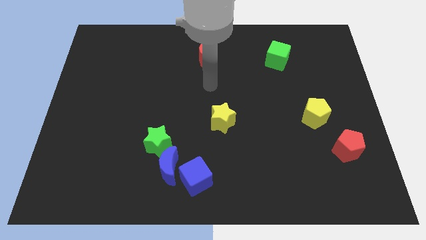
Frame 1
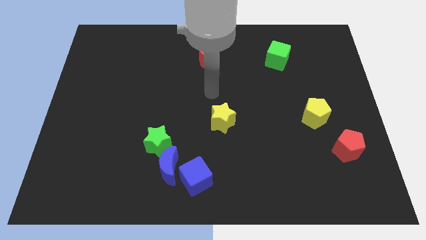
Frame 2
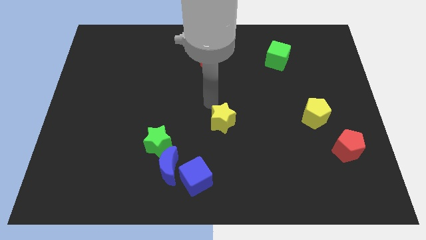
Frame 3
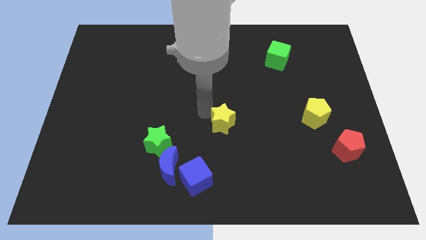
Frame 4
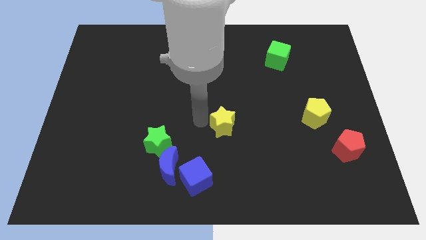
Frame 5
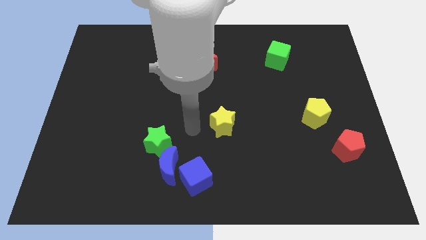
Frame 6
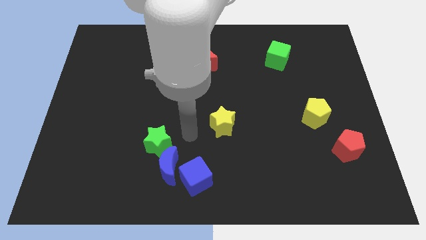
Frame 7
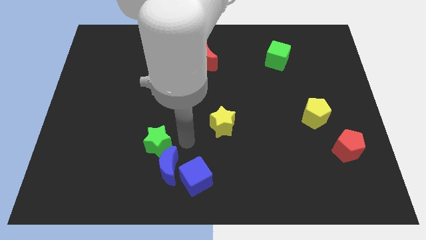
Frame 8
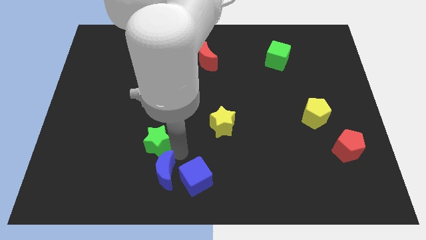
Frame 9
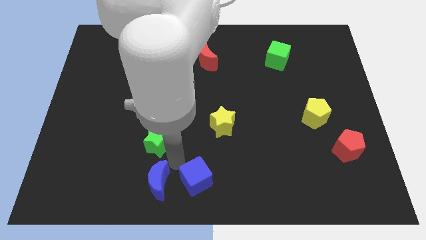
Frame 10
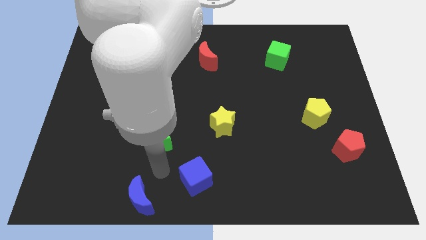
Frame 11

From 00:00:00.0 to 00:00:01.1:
move the green star away from the blue moon

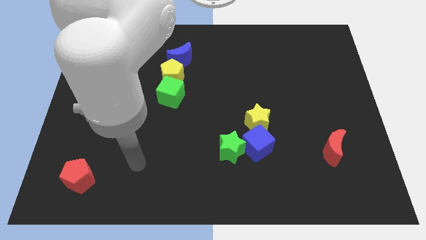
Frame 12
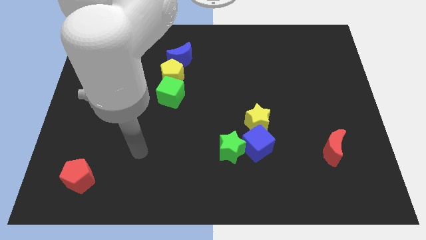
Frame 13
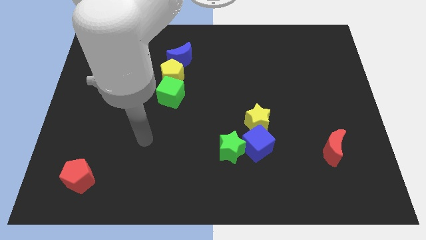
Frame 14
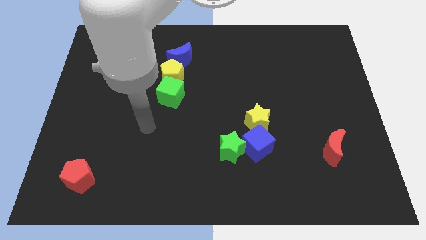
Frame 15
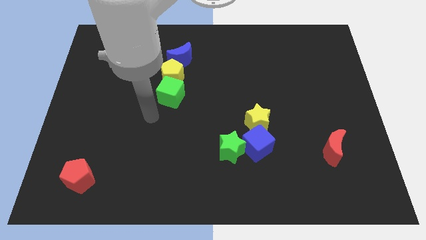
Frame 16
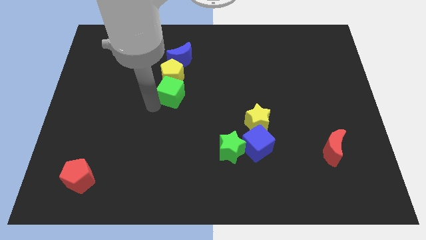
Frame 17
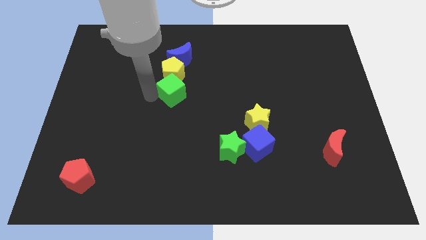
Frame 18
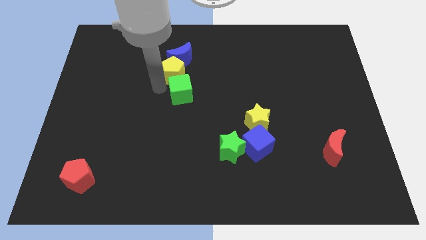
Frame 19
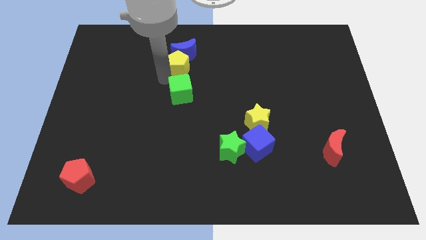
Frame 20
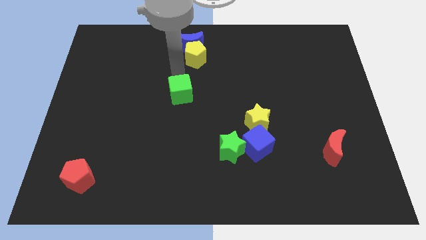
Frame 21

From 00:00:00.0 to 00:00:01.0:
move the green cube away from the yellow pentagon

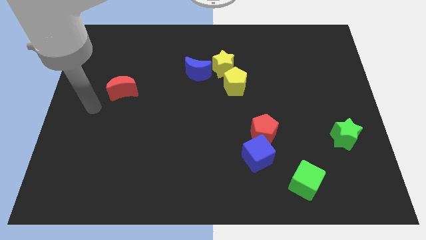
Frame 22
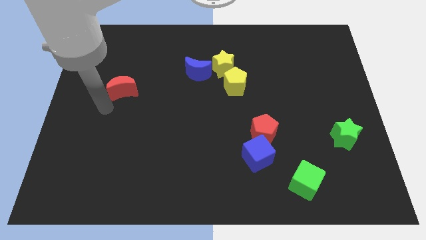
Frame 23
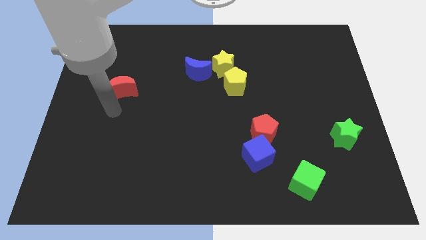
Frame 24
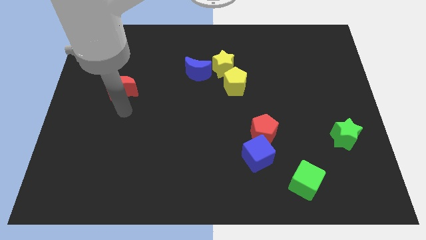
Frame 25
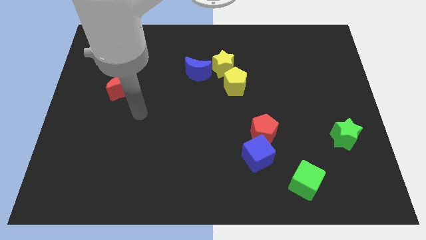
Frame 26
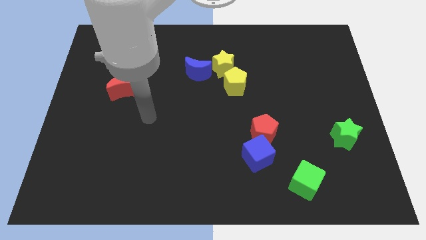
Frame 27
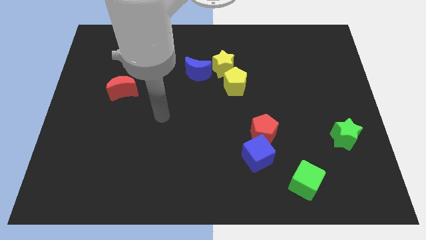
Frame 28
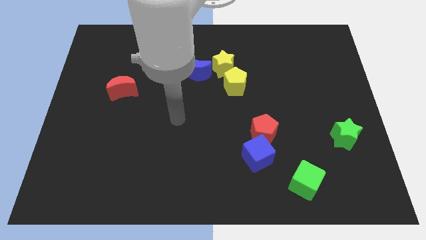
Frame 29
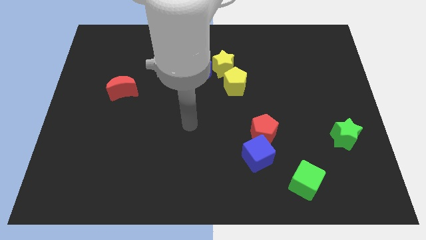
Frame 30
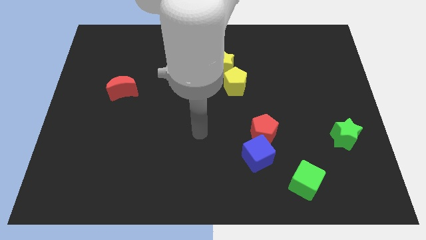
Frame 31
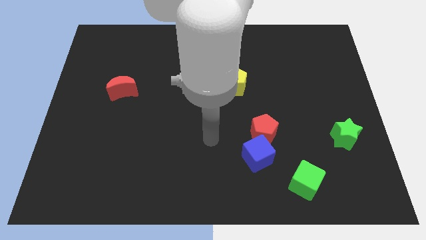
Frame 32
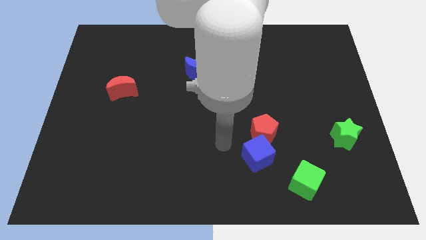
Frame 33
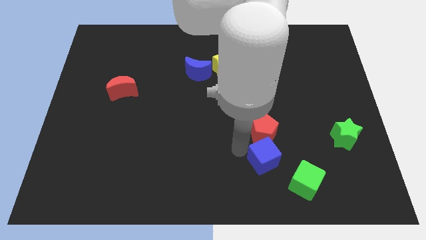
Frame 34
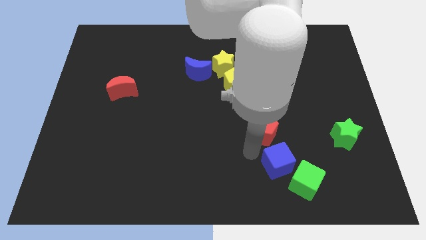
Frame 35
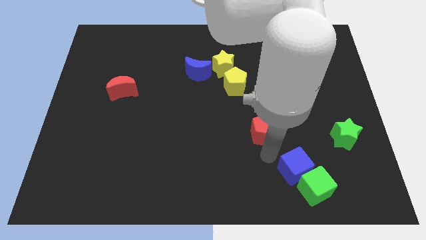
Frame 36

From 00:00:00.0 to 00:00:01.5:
pull the red pentagon apart from the blue cube

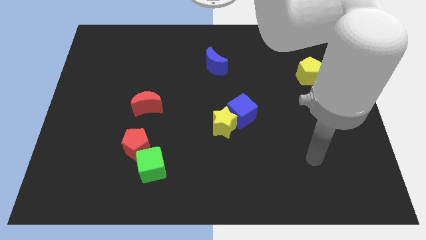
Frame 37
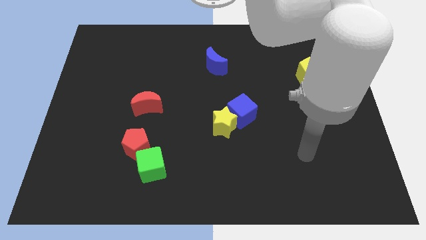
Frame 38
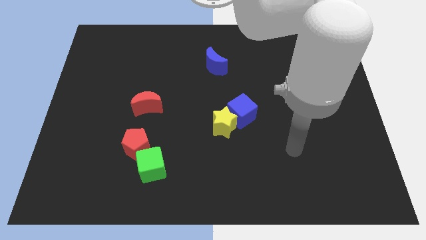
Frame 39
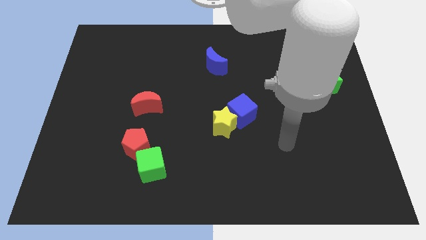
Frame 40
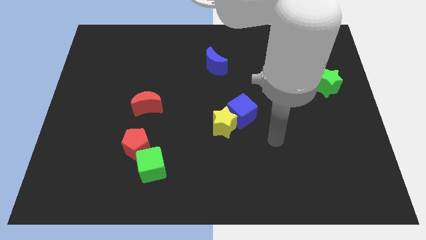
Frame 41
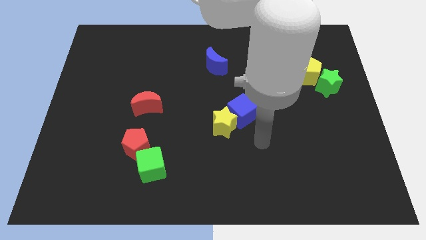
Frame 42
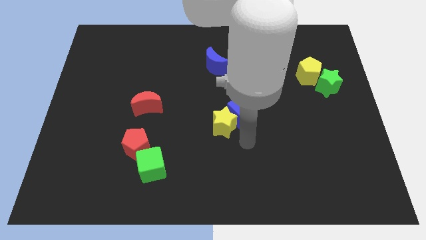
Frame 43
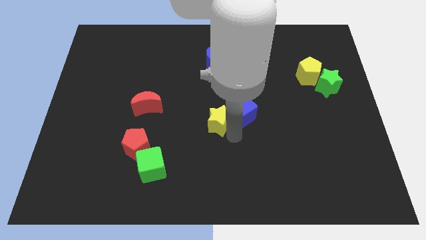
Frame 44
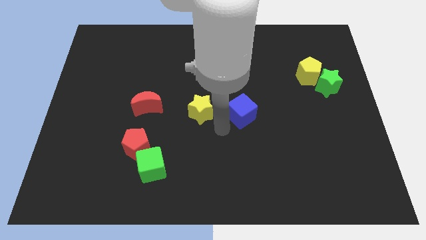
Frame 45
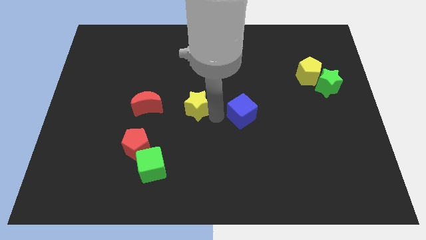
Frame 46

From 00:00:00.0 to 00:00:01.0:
pull the blue cube apart from the yellow star

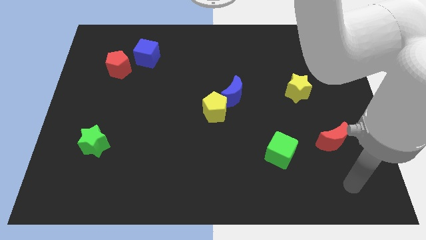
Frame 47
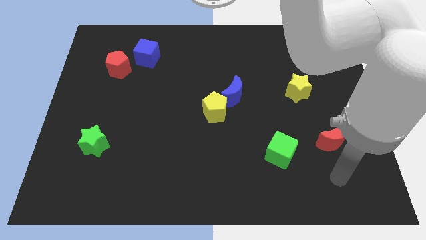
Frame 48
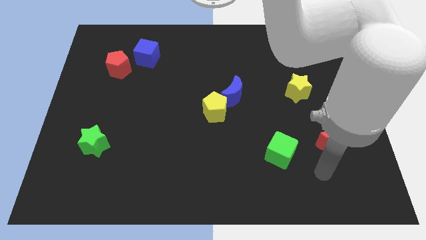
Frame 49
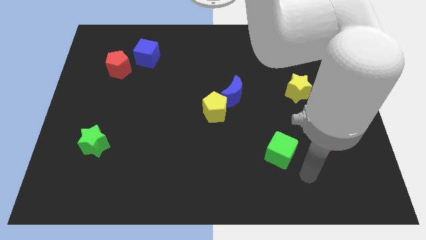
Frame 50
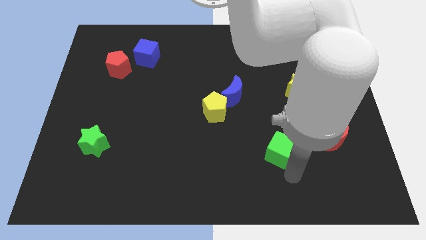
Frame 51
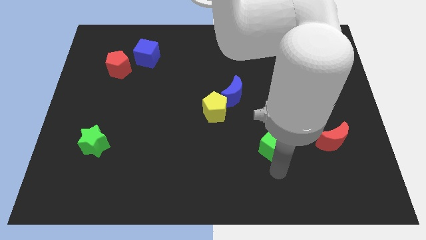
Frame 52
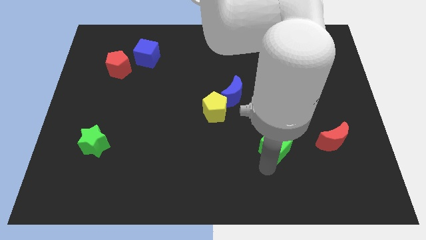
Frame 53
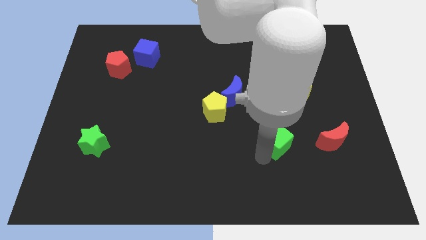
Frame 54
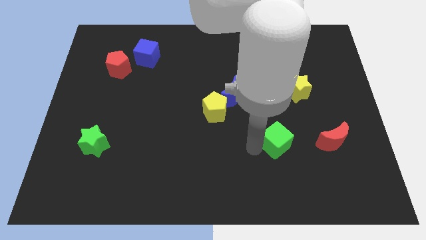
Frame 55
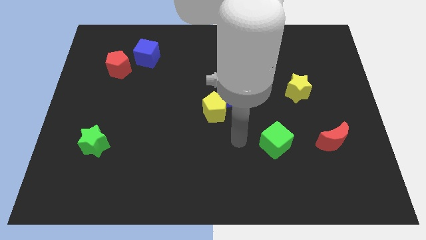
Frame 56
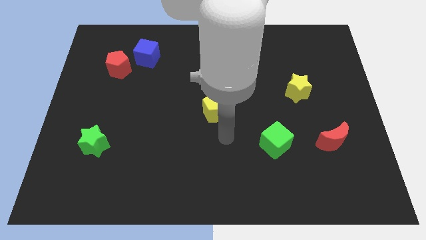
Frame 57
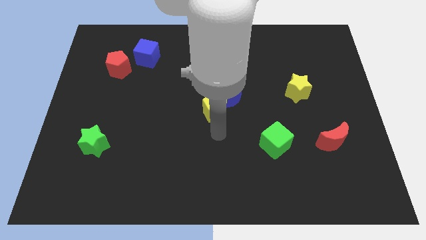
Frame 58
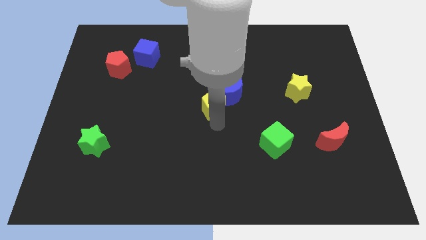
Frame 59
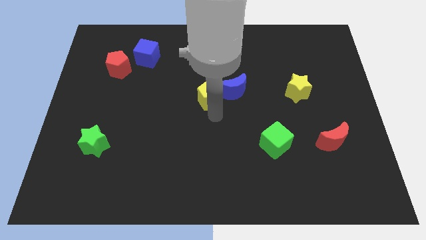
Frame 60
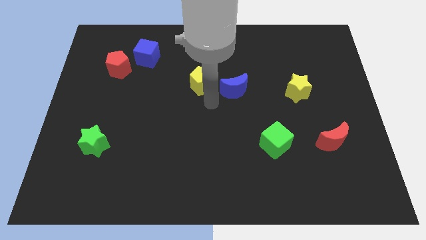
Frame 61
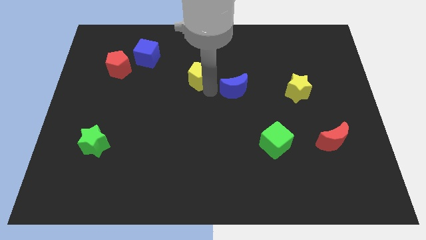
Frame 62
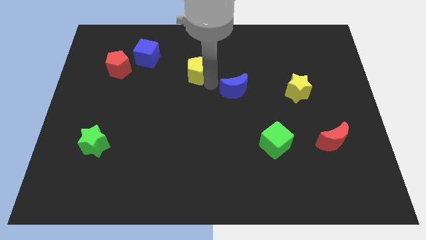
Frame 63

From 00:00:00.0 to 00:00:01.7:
separate the blue moon from the yellow pentagon

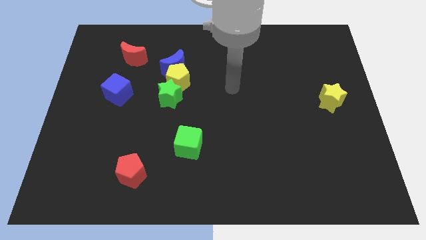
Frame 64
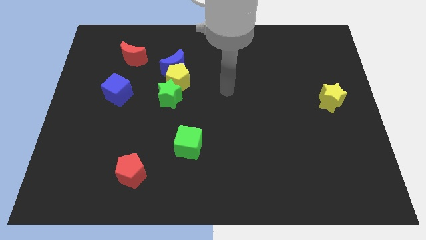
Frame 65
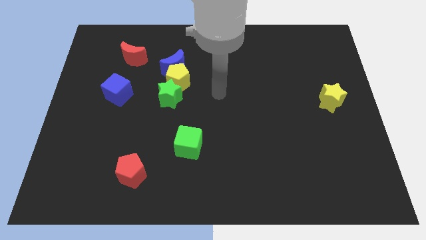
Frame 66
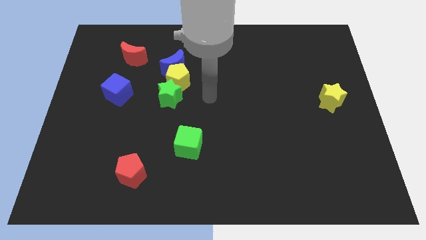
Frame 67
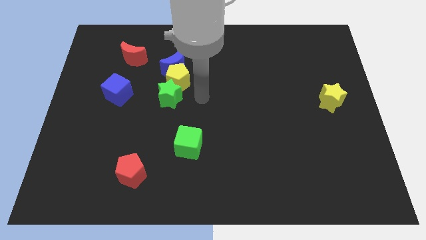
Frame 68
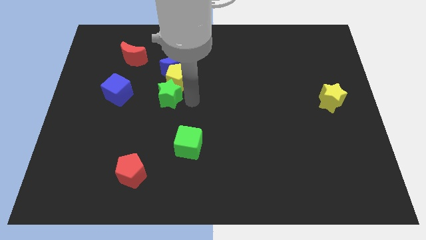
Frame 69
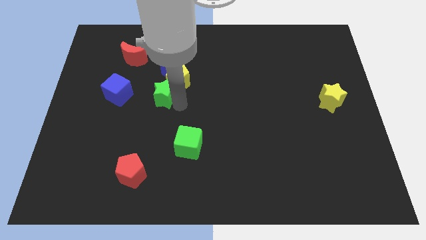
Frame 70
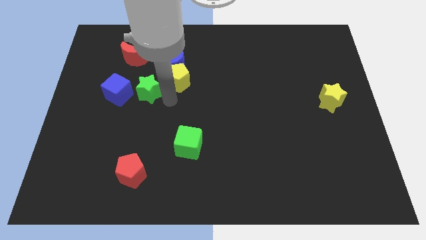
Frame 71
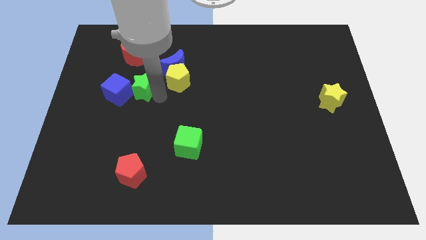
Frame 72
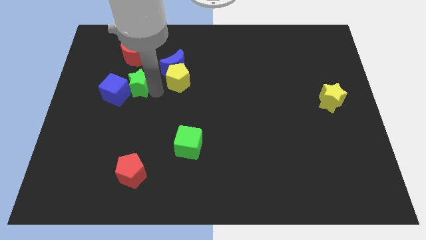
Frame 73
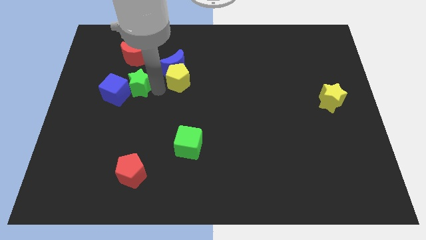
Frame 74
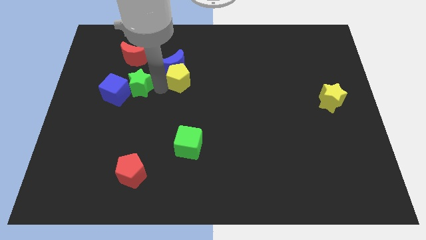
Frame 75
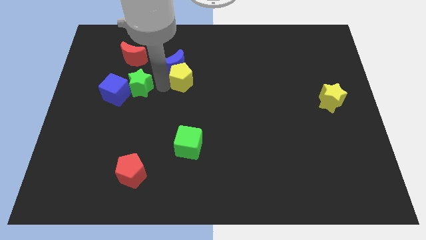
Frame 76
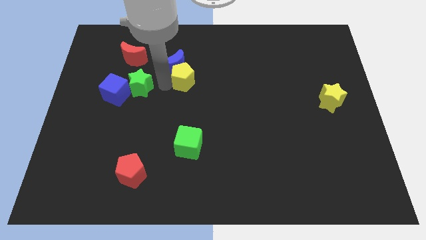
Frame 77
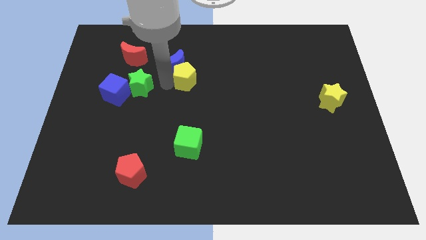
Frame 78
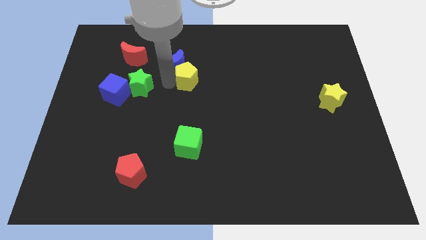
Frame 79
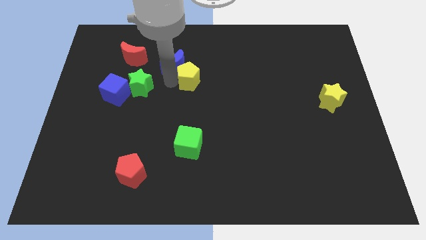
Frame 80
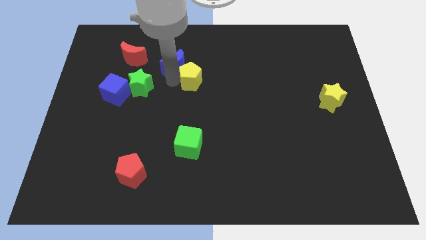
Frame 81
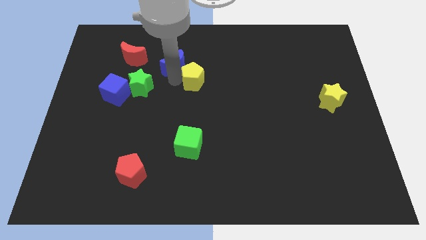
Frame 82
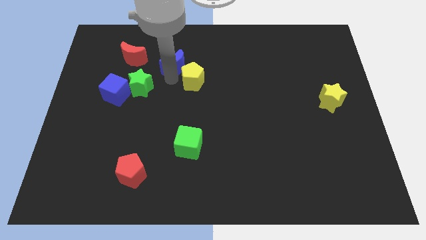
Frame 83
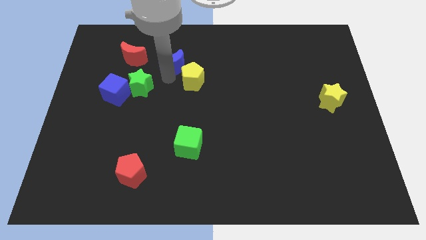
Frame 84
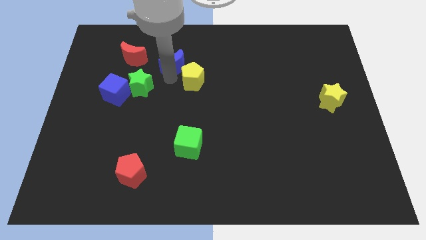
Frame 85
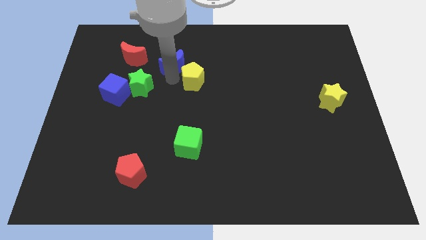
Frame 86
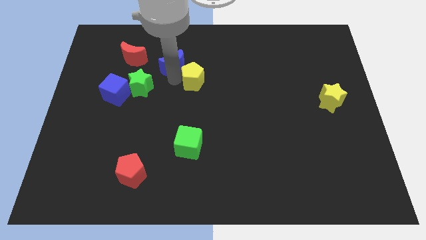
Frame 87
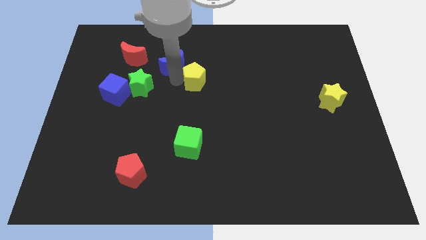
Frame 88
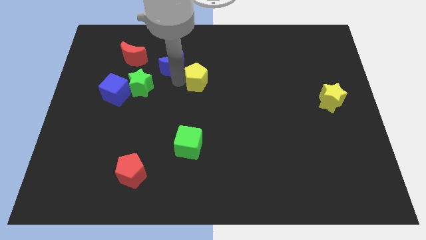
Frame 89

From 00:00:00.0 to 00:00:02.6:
move the yellow pentagon away from the blue moon and green star

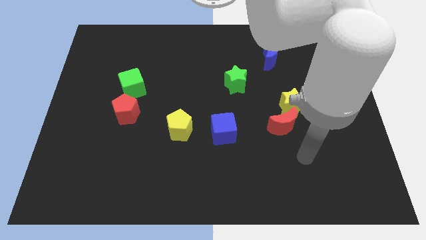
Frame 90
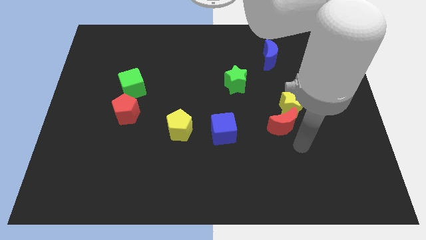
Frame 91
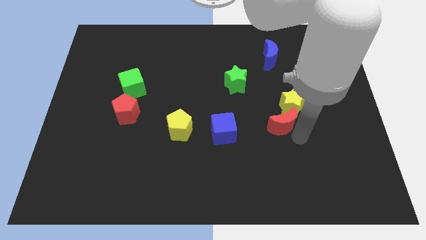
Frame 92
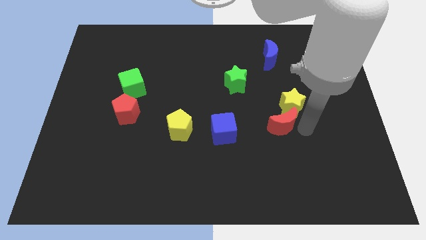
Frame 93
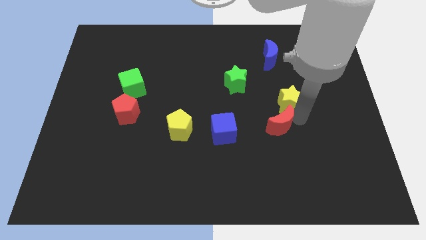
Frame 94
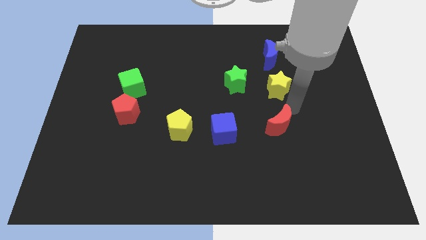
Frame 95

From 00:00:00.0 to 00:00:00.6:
move the red moon away from the yellow star
